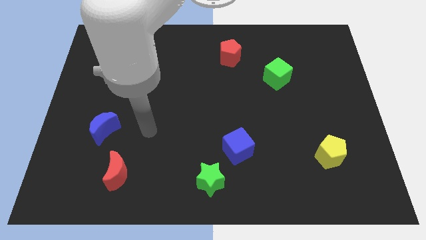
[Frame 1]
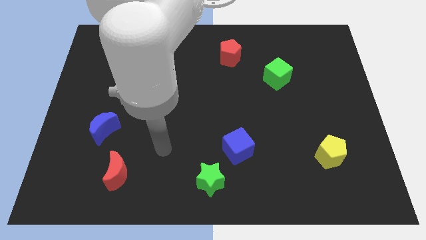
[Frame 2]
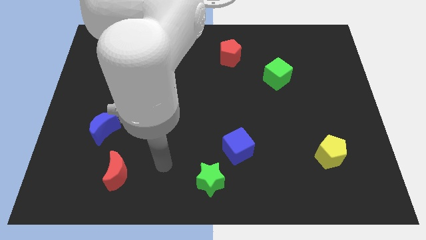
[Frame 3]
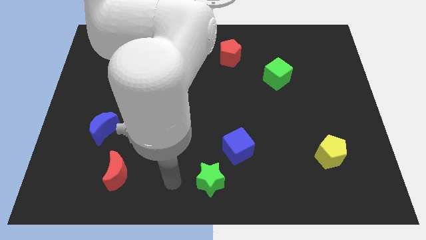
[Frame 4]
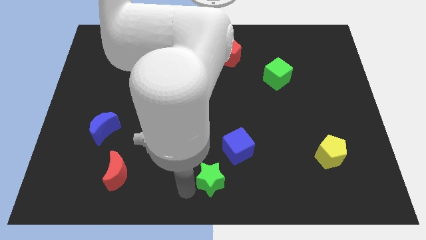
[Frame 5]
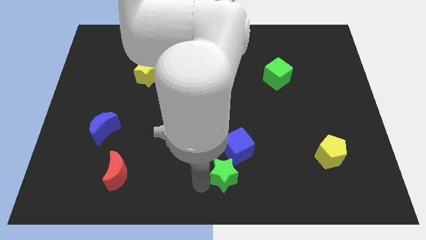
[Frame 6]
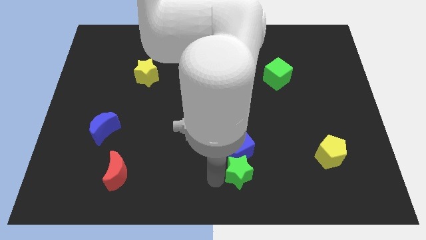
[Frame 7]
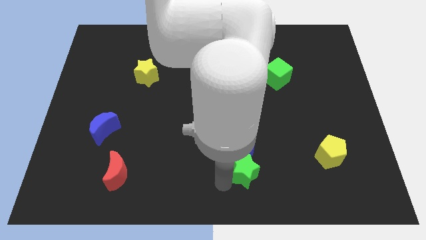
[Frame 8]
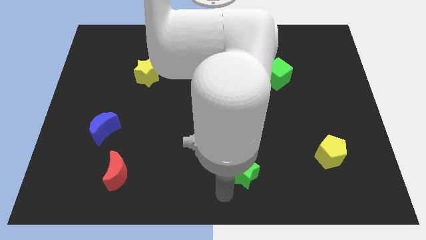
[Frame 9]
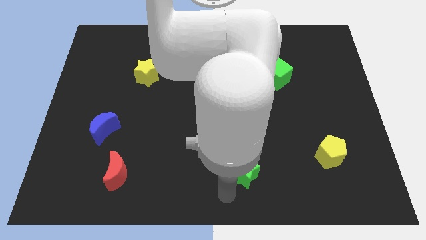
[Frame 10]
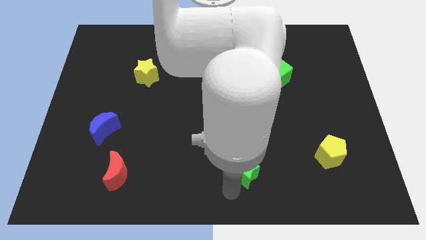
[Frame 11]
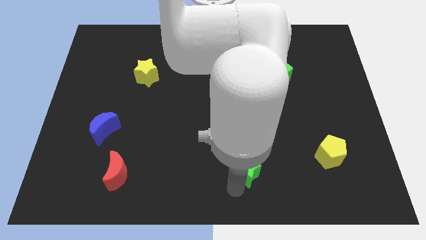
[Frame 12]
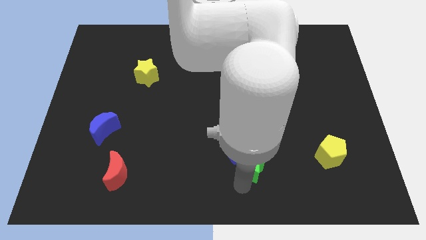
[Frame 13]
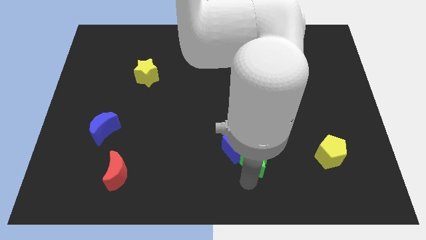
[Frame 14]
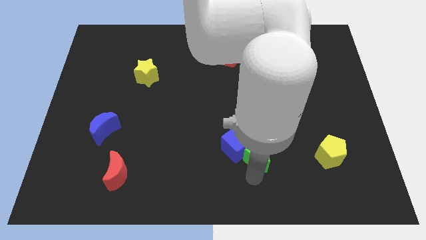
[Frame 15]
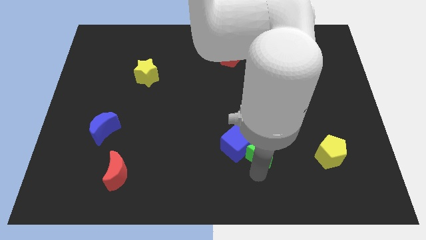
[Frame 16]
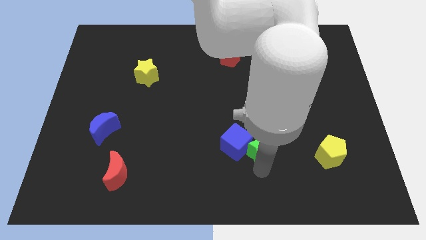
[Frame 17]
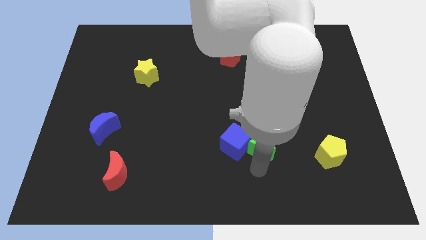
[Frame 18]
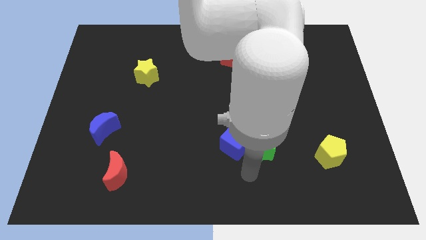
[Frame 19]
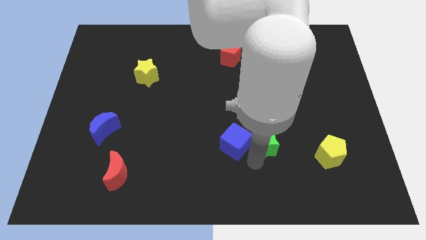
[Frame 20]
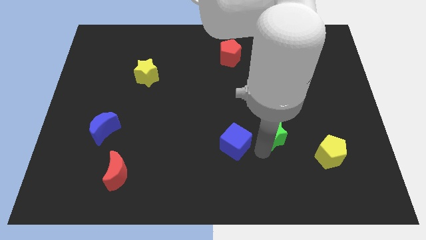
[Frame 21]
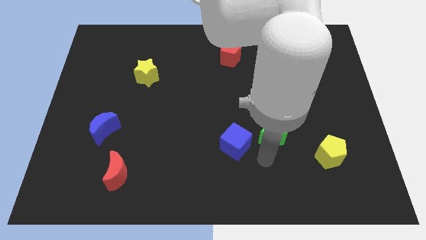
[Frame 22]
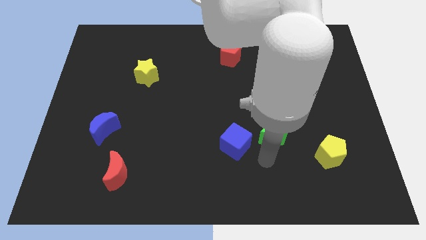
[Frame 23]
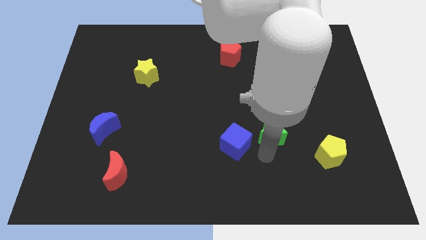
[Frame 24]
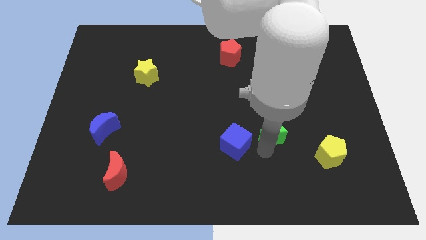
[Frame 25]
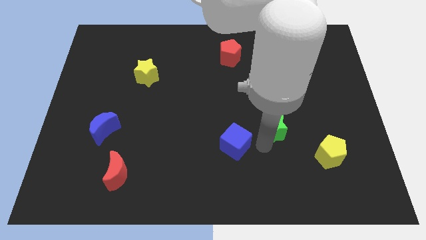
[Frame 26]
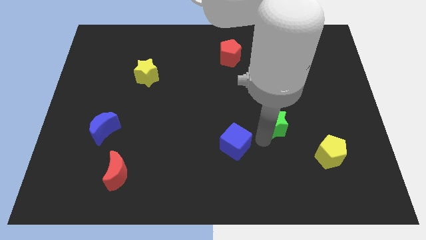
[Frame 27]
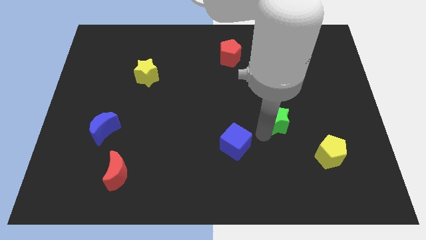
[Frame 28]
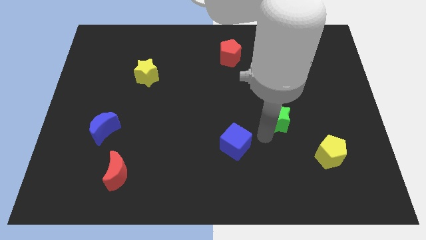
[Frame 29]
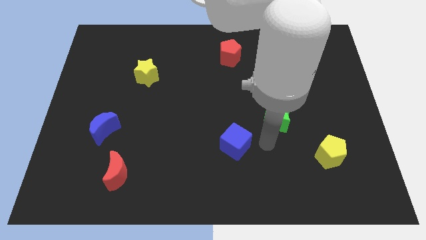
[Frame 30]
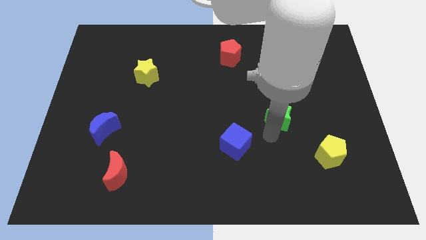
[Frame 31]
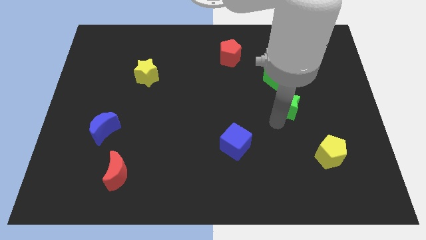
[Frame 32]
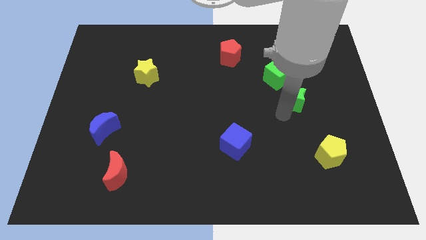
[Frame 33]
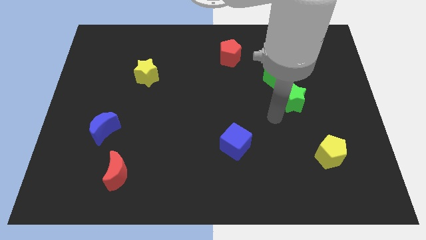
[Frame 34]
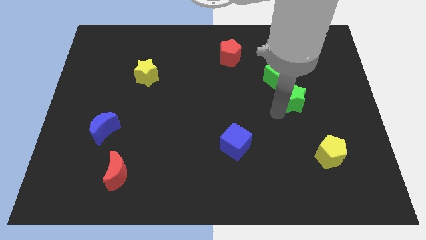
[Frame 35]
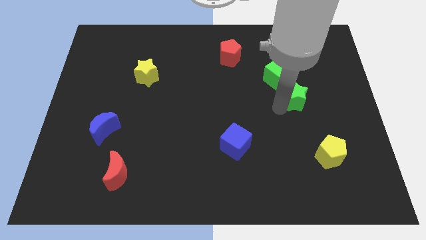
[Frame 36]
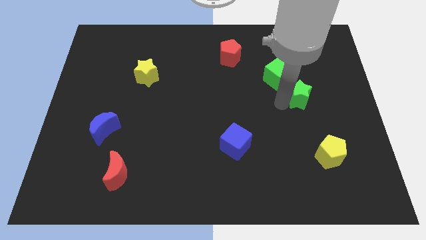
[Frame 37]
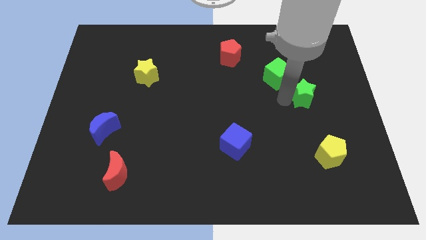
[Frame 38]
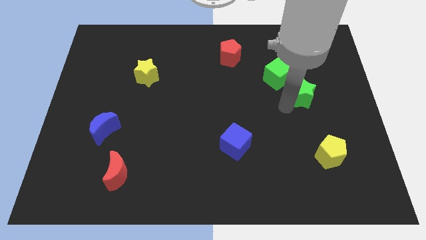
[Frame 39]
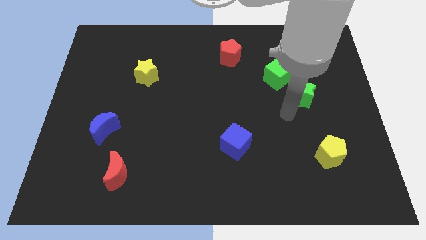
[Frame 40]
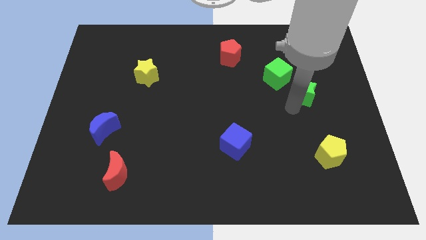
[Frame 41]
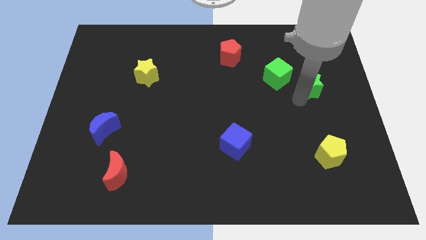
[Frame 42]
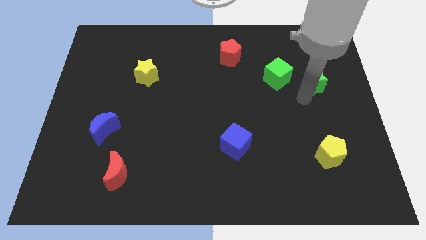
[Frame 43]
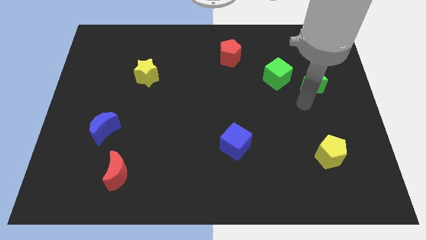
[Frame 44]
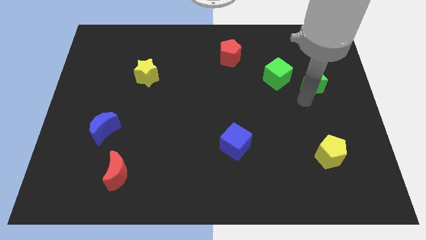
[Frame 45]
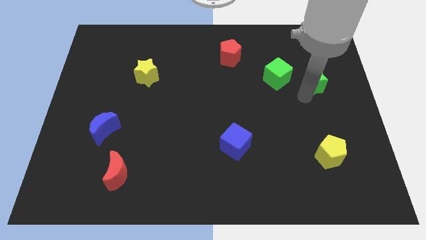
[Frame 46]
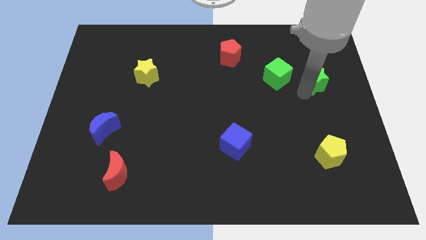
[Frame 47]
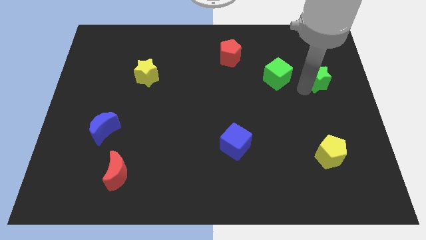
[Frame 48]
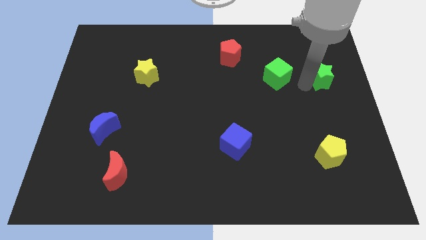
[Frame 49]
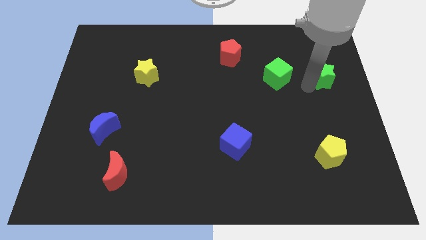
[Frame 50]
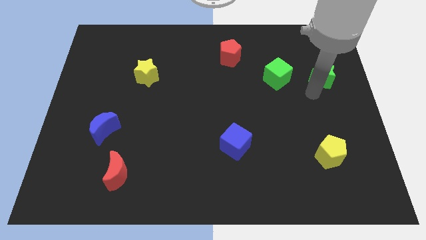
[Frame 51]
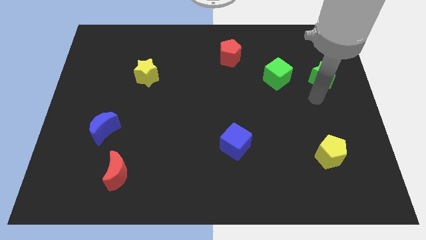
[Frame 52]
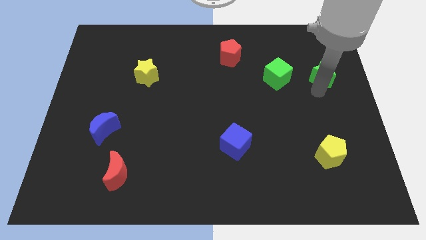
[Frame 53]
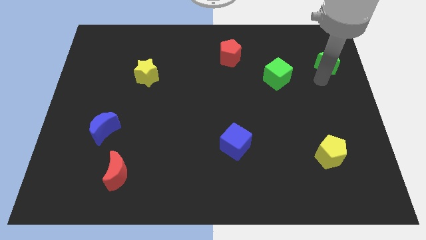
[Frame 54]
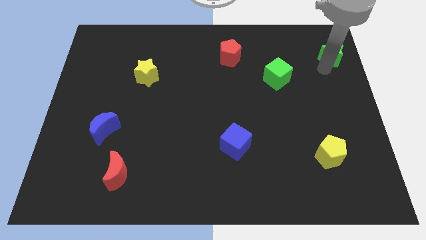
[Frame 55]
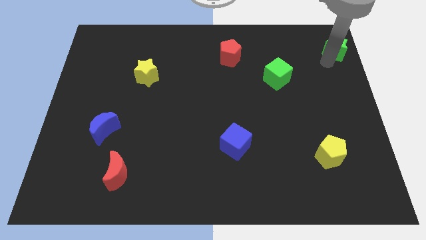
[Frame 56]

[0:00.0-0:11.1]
slide the green star to the top right corner

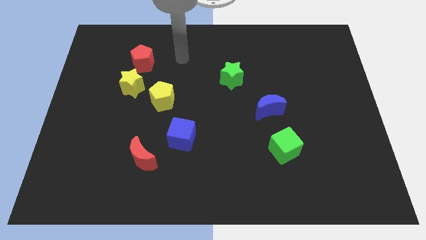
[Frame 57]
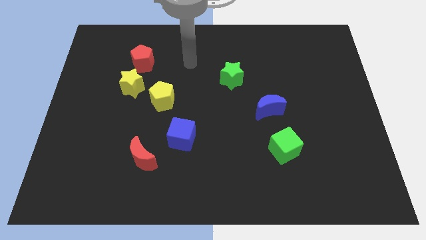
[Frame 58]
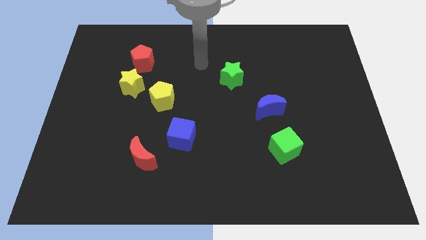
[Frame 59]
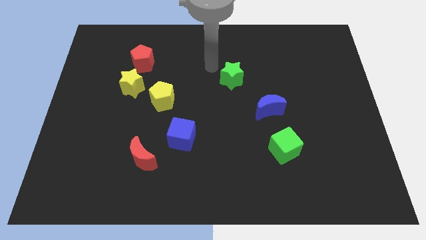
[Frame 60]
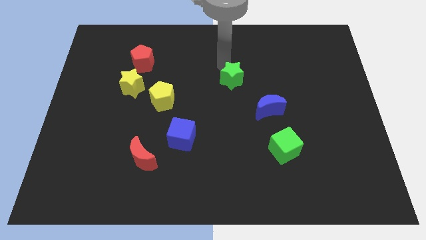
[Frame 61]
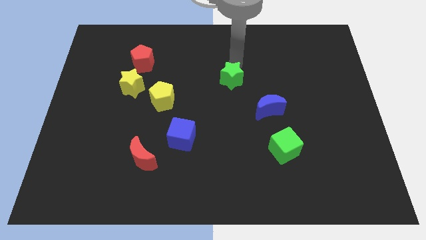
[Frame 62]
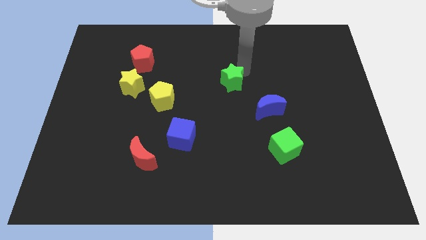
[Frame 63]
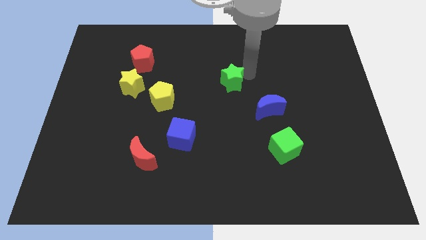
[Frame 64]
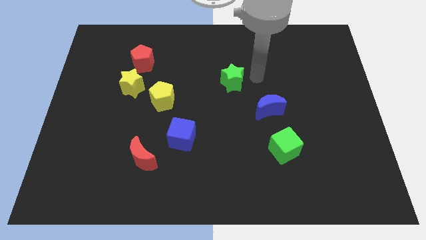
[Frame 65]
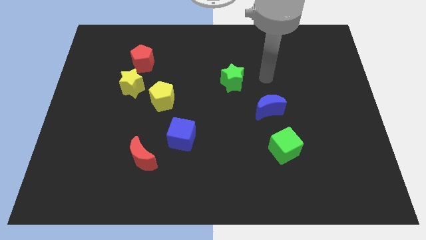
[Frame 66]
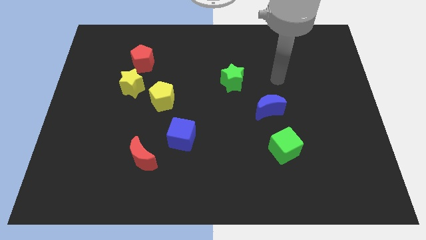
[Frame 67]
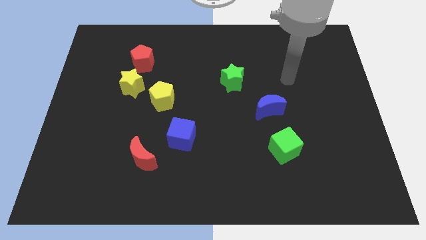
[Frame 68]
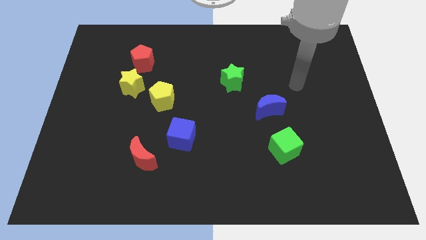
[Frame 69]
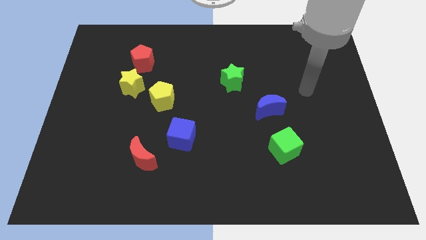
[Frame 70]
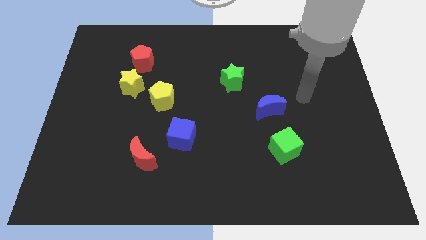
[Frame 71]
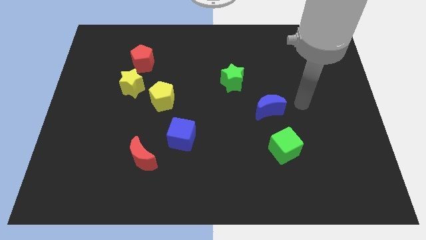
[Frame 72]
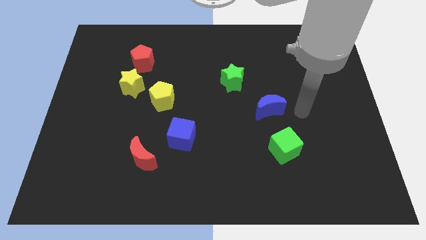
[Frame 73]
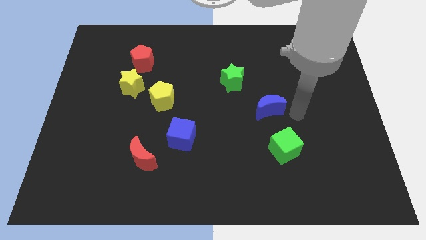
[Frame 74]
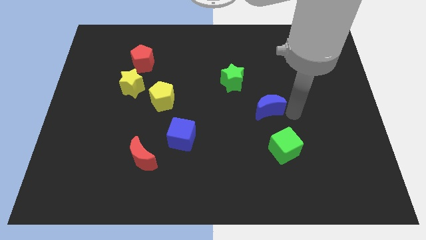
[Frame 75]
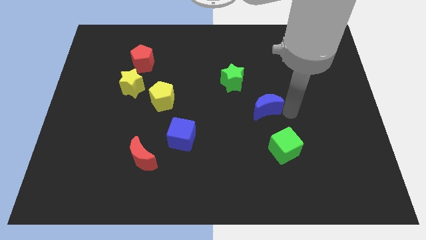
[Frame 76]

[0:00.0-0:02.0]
push the blue moon to the middle of the board
